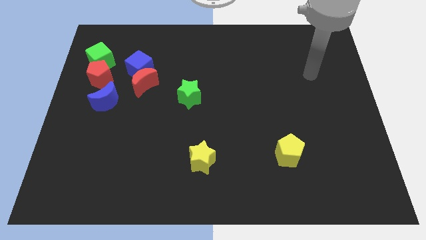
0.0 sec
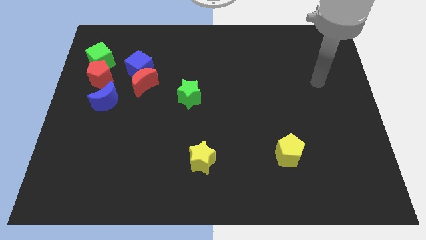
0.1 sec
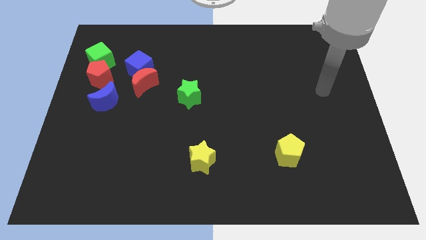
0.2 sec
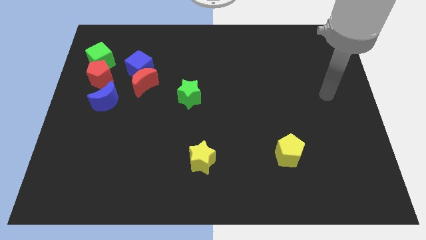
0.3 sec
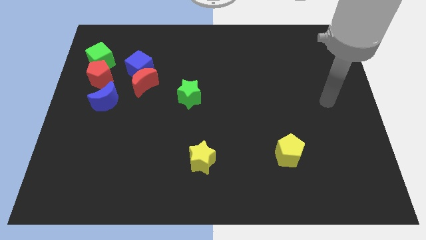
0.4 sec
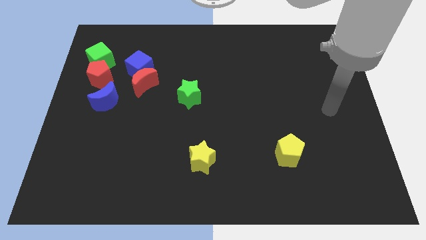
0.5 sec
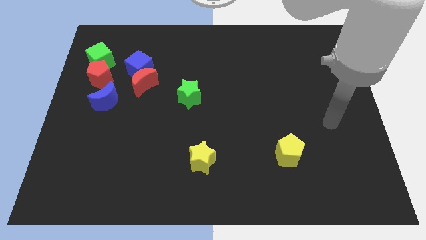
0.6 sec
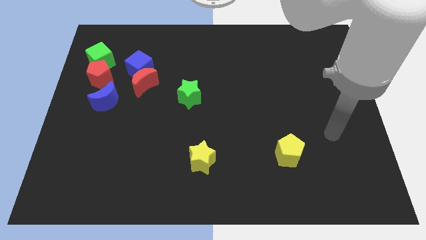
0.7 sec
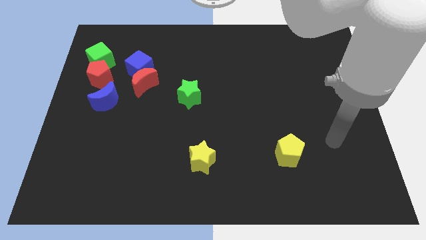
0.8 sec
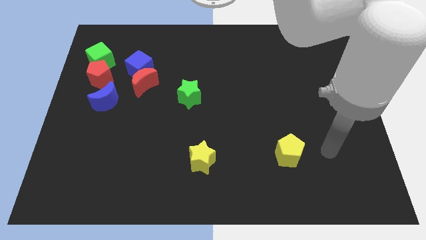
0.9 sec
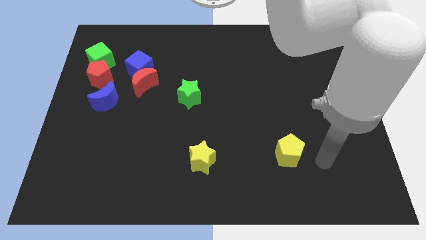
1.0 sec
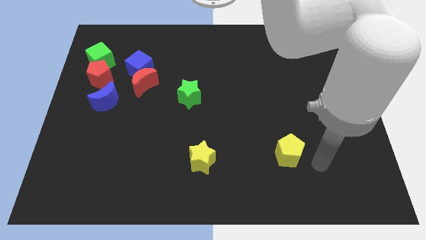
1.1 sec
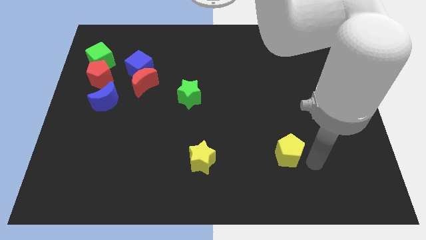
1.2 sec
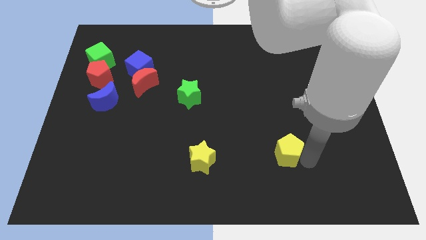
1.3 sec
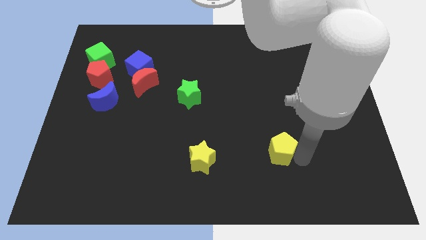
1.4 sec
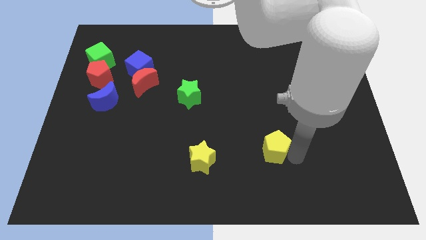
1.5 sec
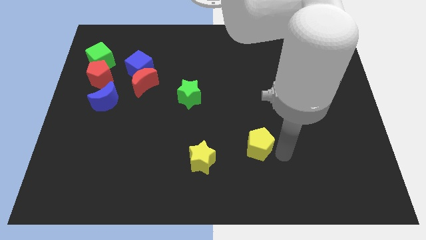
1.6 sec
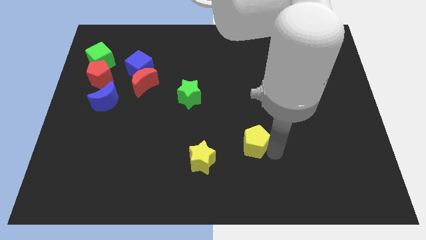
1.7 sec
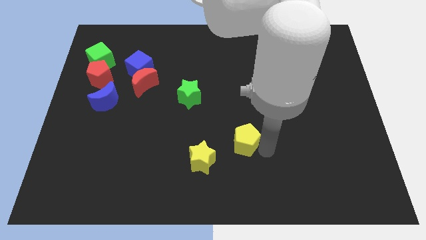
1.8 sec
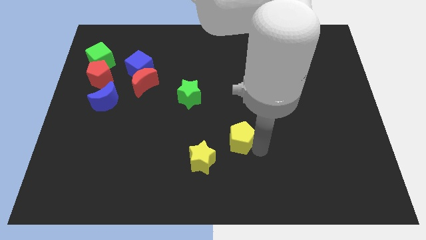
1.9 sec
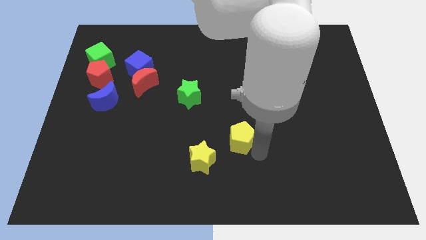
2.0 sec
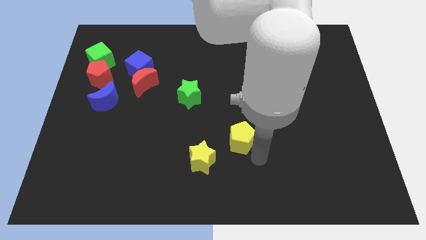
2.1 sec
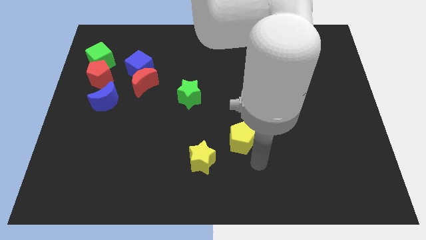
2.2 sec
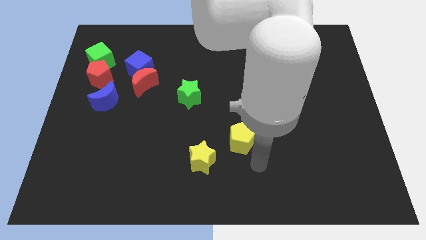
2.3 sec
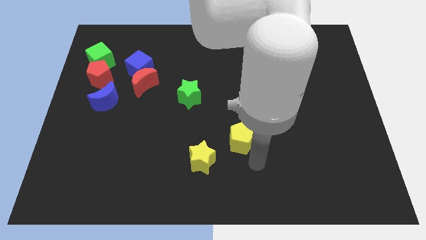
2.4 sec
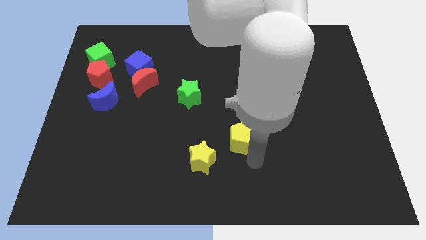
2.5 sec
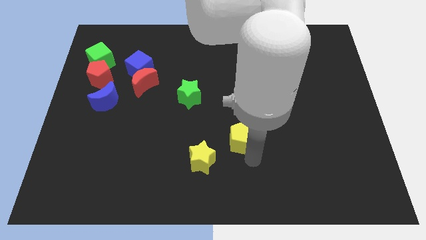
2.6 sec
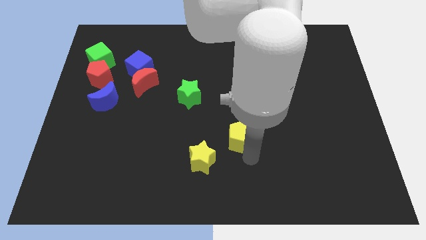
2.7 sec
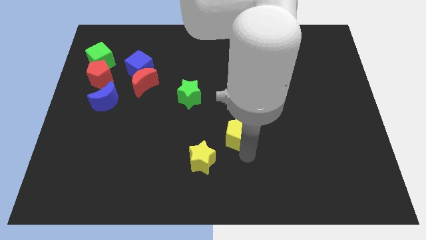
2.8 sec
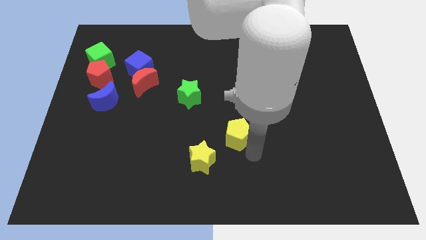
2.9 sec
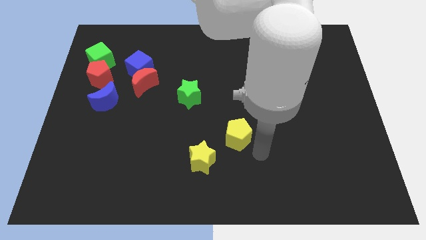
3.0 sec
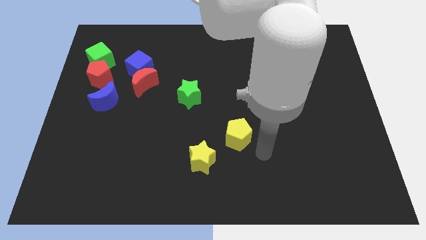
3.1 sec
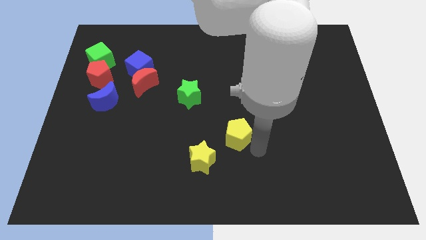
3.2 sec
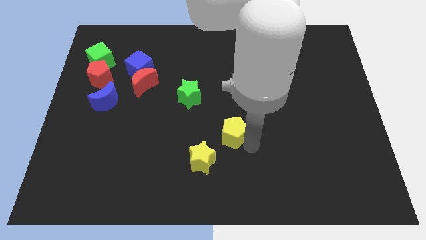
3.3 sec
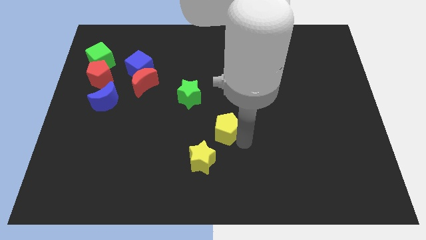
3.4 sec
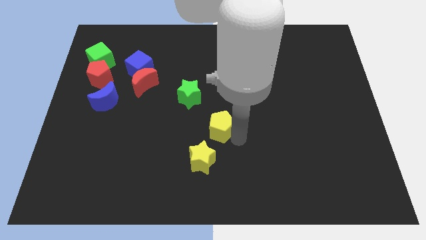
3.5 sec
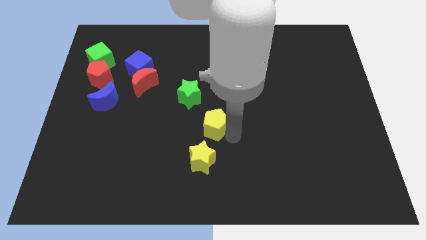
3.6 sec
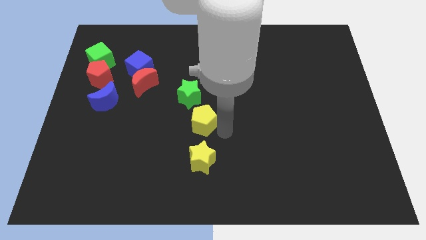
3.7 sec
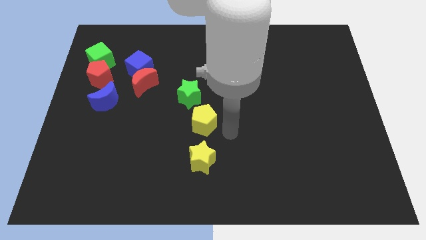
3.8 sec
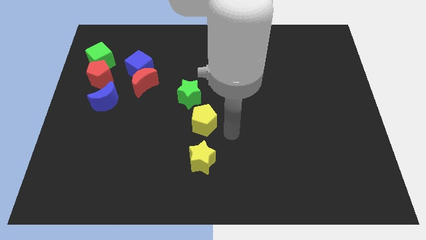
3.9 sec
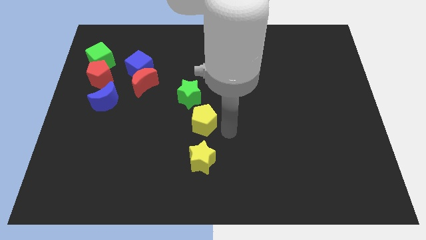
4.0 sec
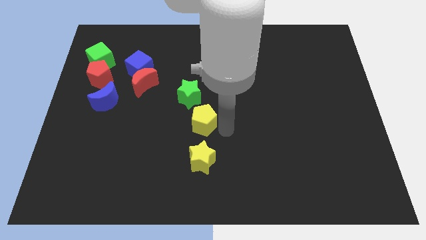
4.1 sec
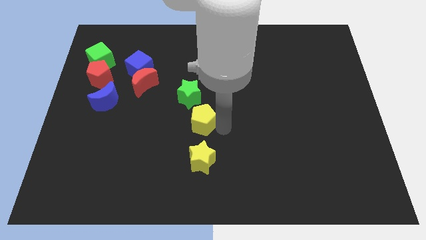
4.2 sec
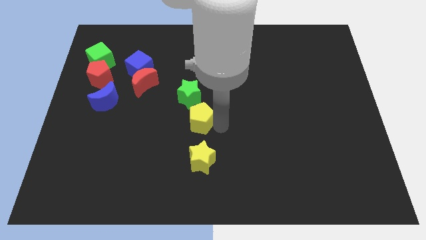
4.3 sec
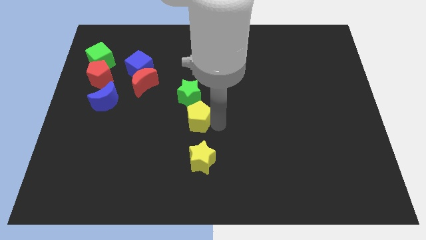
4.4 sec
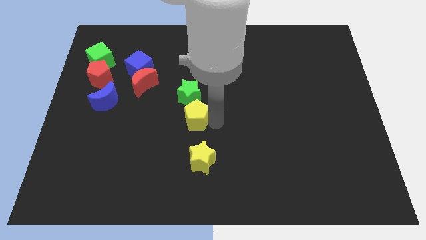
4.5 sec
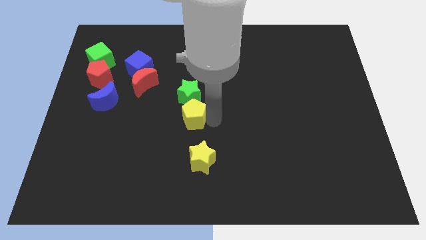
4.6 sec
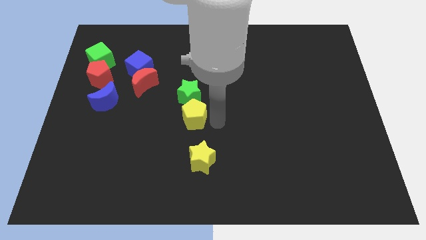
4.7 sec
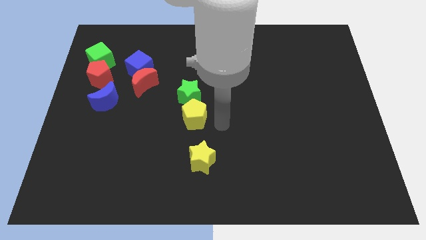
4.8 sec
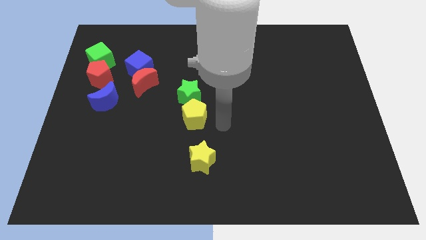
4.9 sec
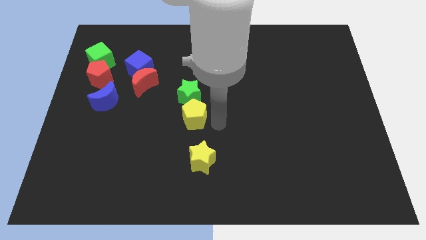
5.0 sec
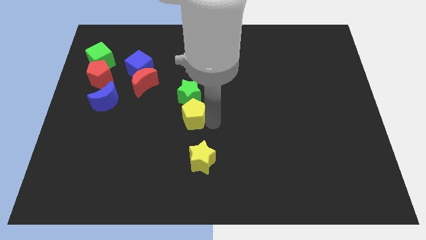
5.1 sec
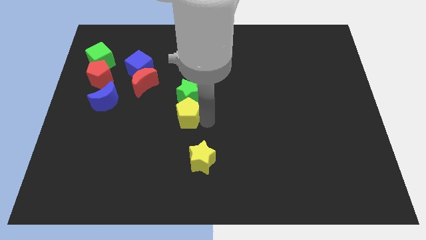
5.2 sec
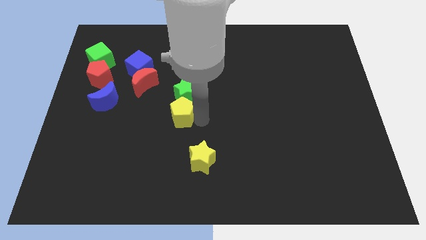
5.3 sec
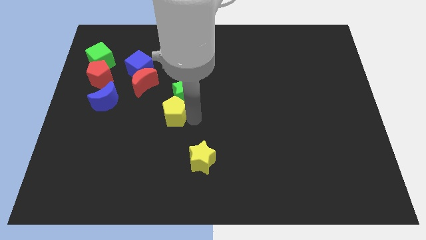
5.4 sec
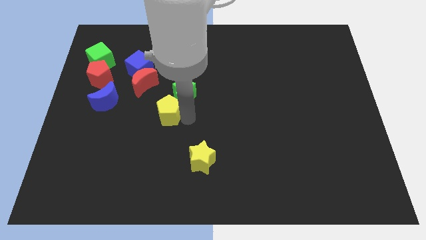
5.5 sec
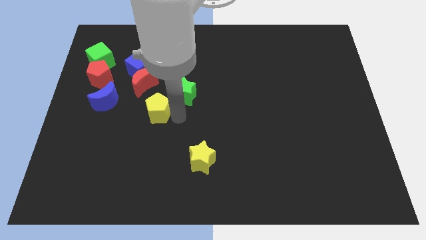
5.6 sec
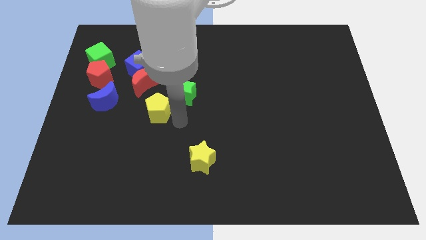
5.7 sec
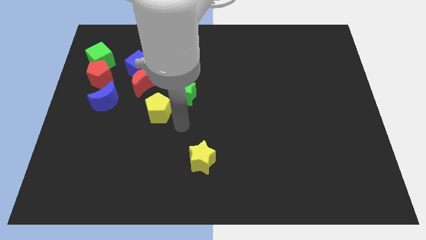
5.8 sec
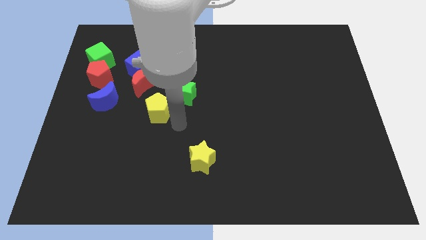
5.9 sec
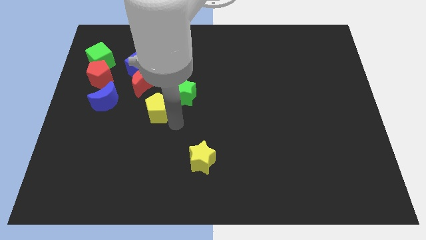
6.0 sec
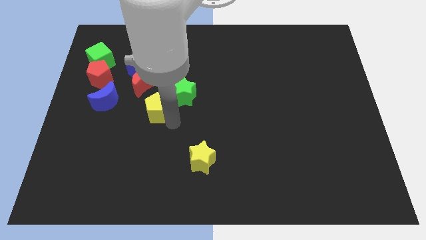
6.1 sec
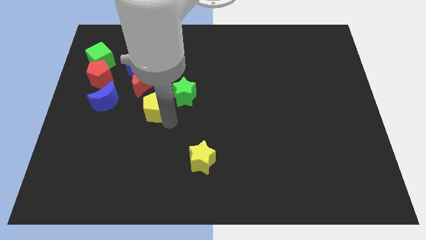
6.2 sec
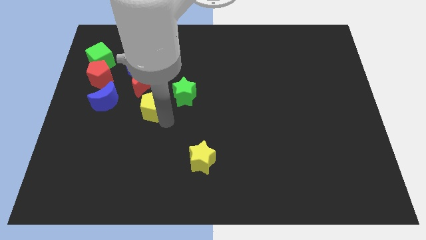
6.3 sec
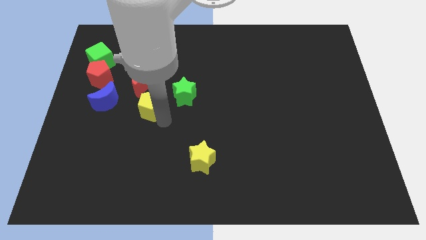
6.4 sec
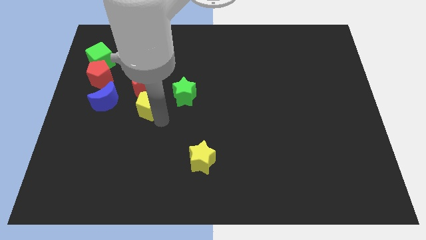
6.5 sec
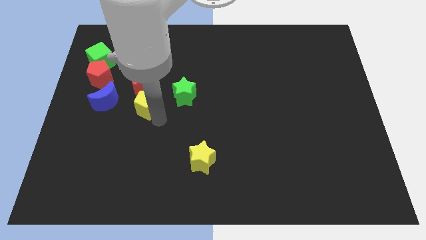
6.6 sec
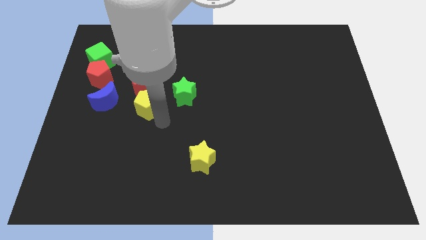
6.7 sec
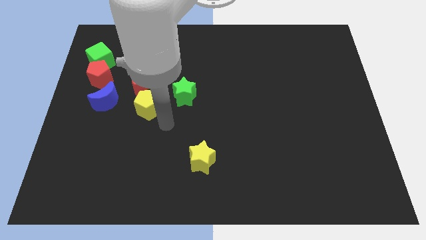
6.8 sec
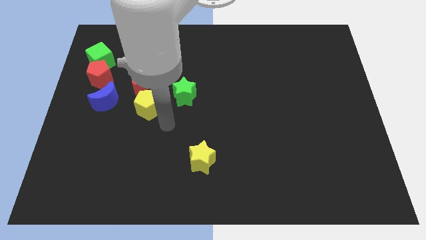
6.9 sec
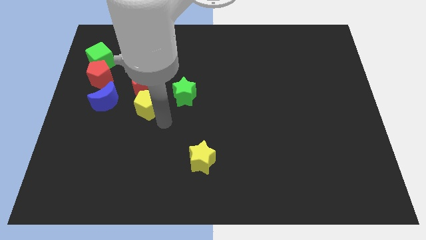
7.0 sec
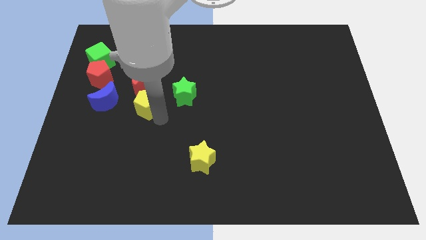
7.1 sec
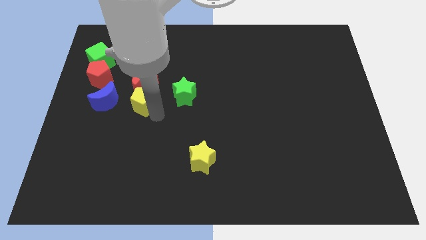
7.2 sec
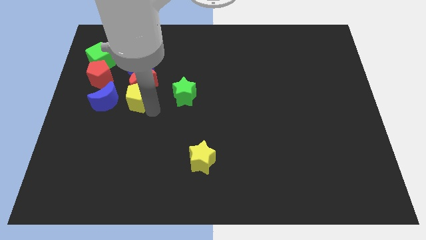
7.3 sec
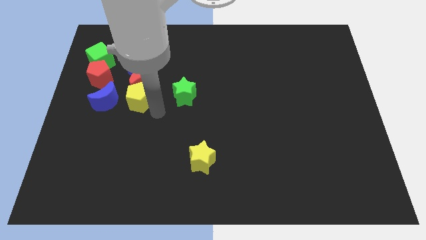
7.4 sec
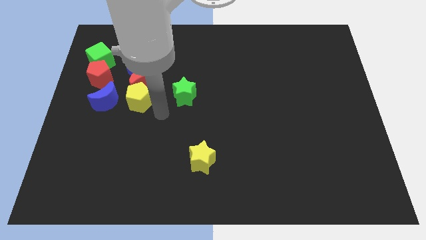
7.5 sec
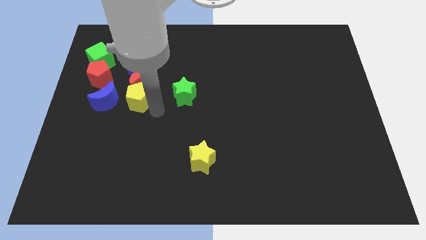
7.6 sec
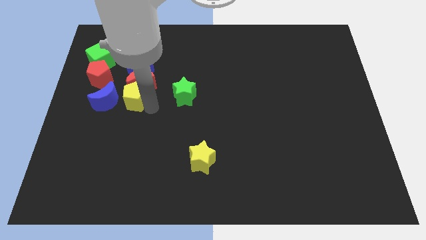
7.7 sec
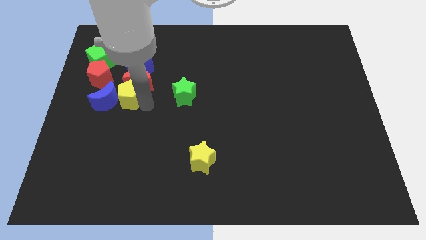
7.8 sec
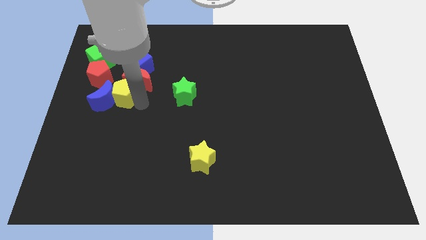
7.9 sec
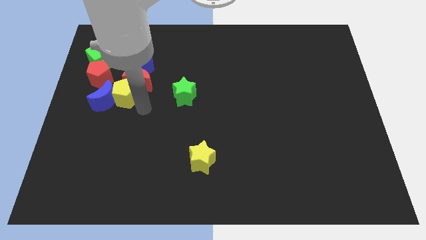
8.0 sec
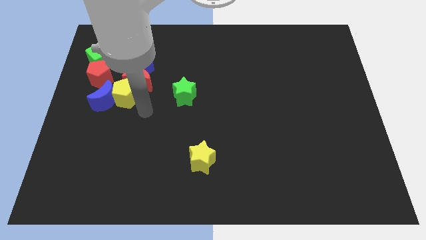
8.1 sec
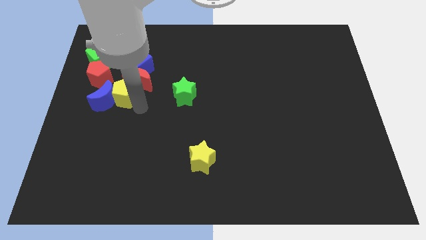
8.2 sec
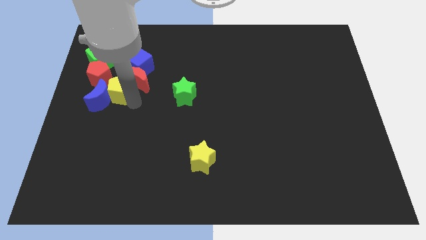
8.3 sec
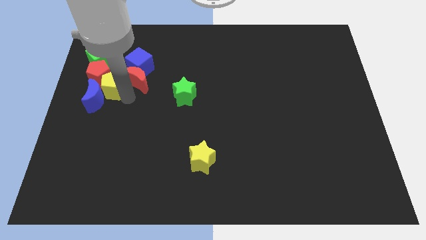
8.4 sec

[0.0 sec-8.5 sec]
push the yellow pentagon towards the red pentagon
